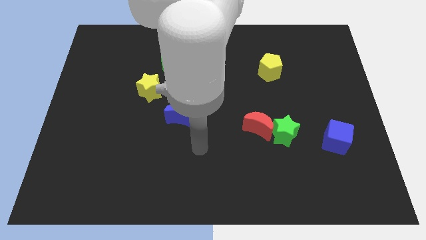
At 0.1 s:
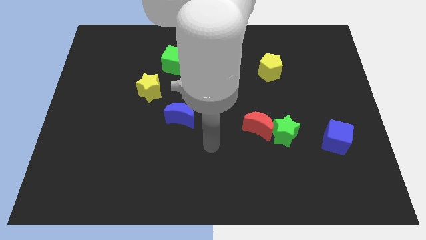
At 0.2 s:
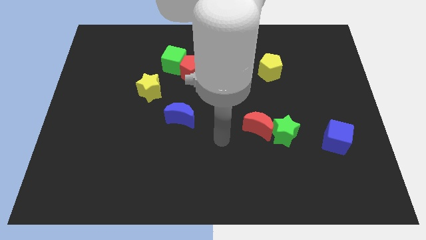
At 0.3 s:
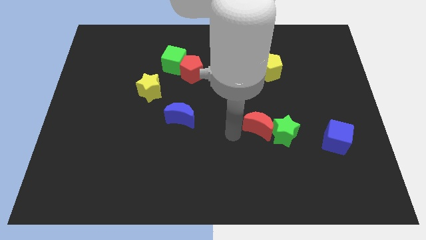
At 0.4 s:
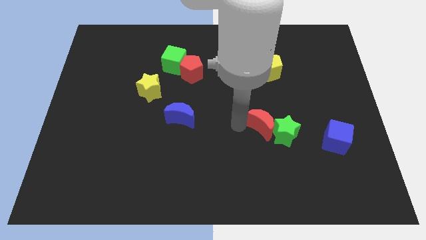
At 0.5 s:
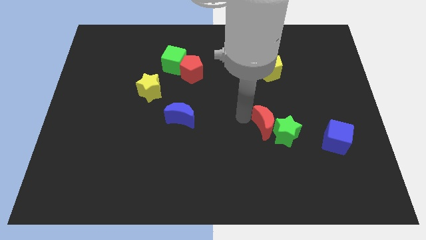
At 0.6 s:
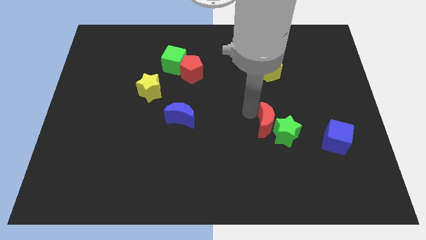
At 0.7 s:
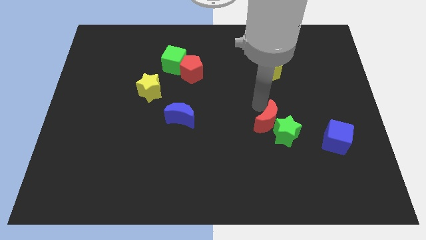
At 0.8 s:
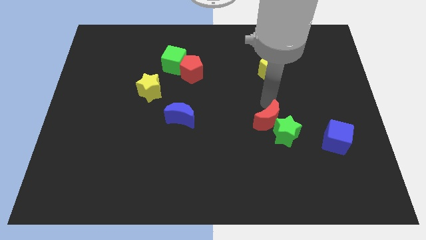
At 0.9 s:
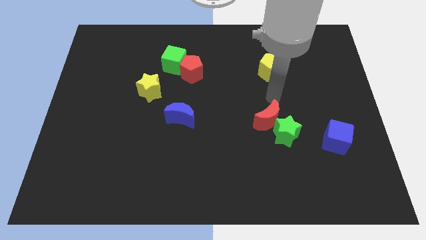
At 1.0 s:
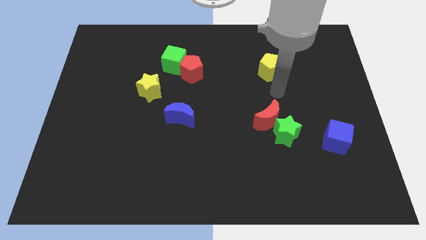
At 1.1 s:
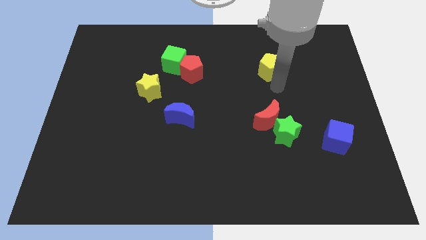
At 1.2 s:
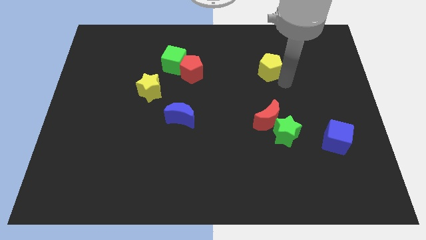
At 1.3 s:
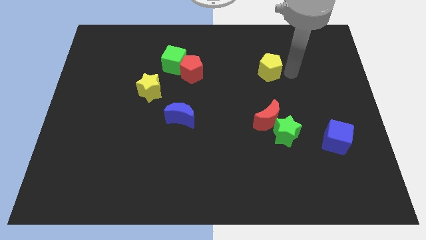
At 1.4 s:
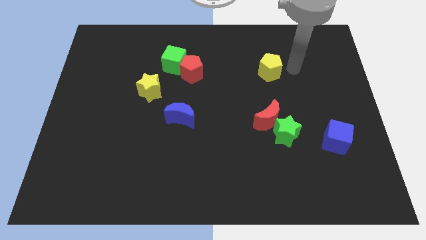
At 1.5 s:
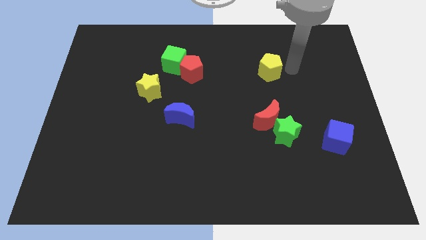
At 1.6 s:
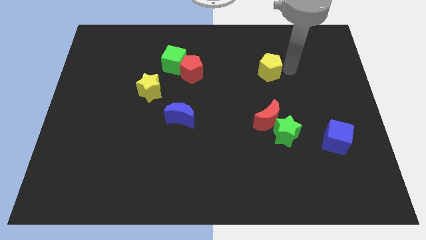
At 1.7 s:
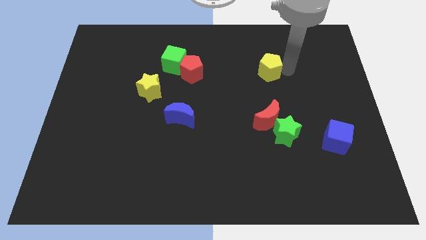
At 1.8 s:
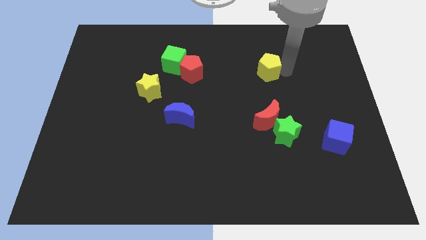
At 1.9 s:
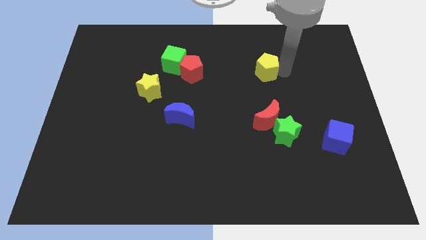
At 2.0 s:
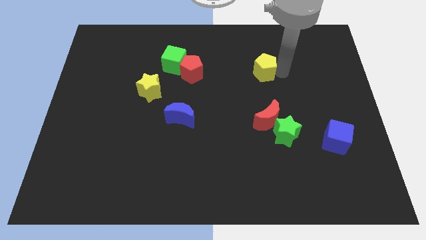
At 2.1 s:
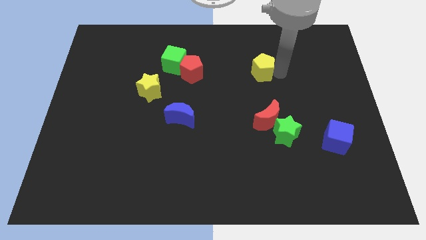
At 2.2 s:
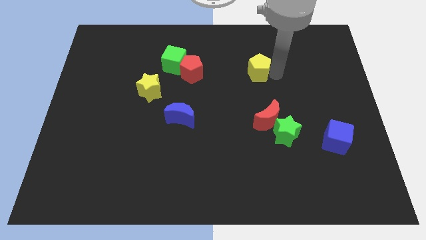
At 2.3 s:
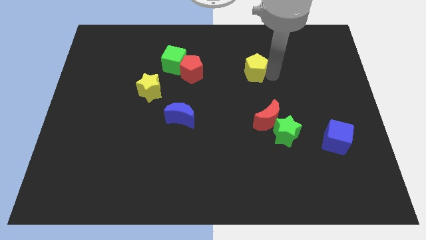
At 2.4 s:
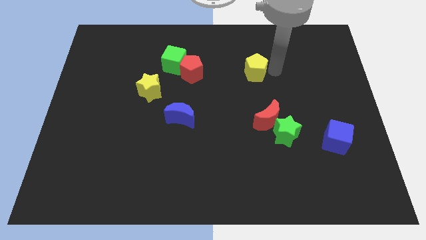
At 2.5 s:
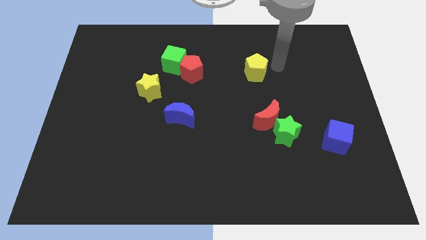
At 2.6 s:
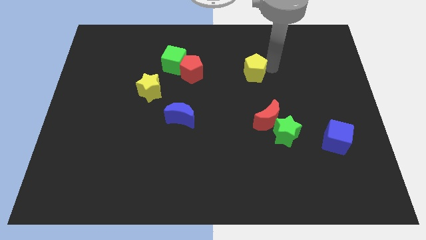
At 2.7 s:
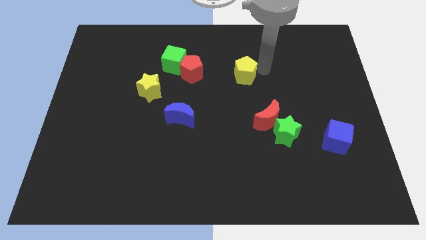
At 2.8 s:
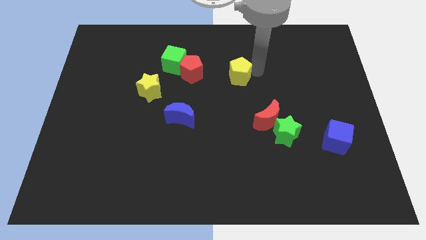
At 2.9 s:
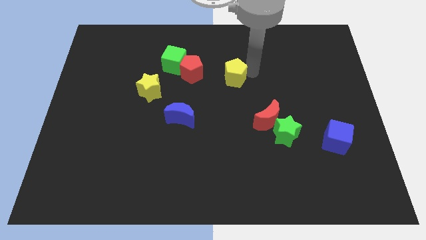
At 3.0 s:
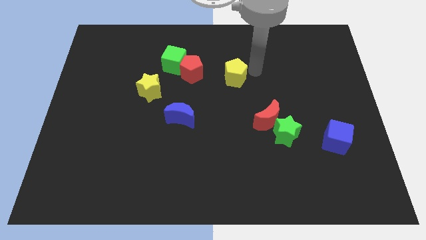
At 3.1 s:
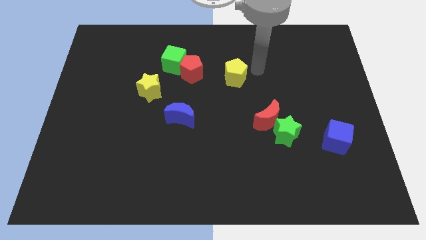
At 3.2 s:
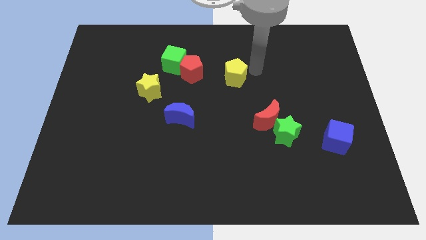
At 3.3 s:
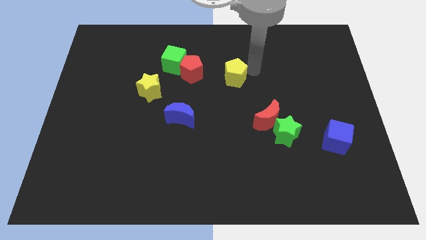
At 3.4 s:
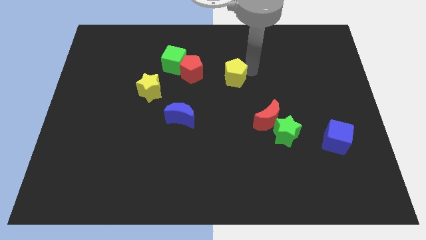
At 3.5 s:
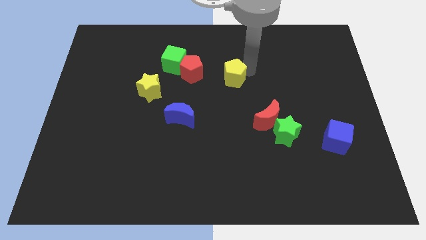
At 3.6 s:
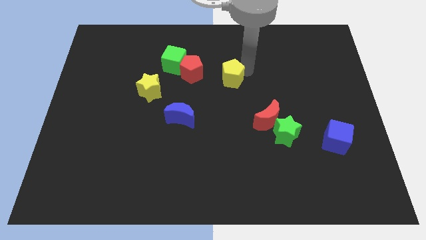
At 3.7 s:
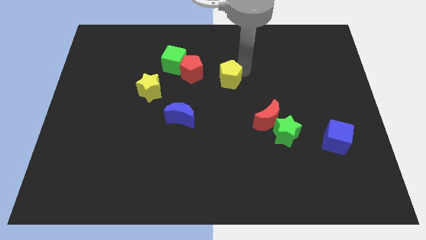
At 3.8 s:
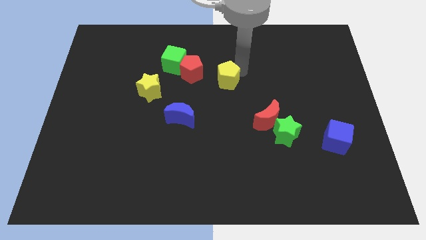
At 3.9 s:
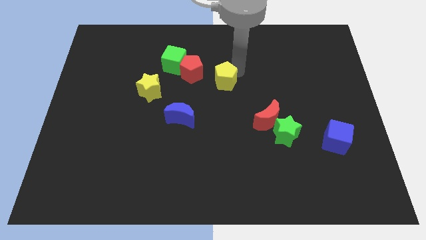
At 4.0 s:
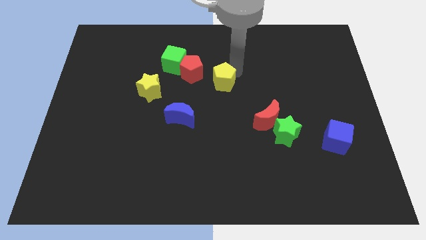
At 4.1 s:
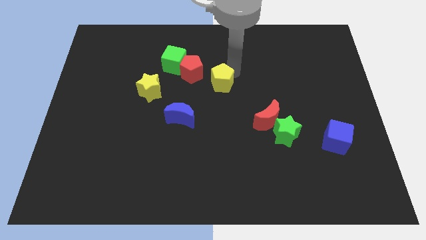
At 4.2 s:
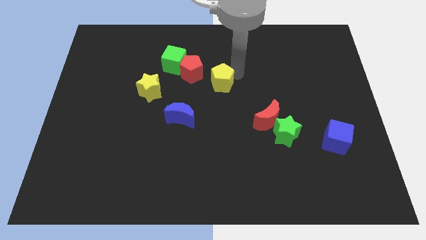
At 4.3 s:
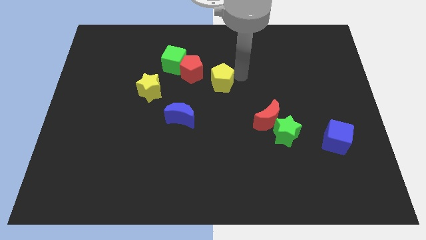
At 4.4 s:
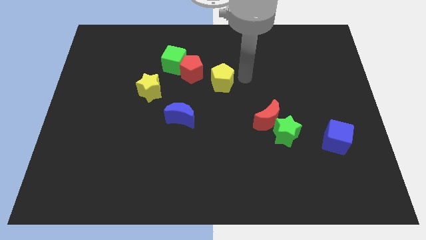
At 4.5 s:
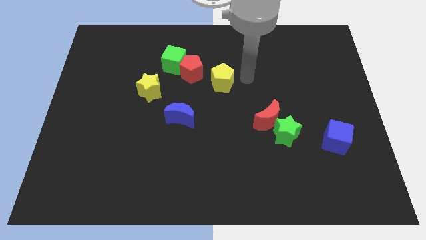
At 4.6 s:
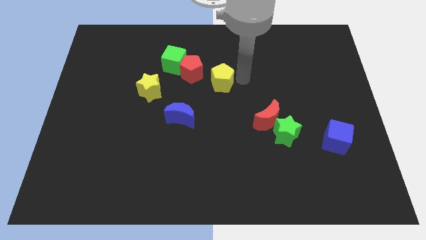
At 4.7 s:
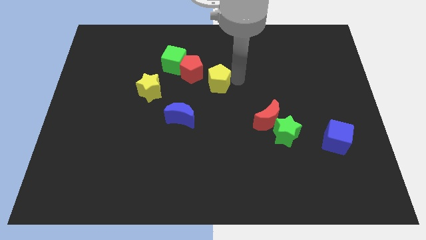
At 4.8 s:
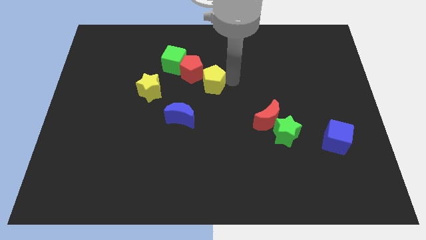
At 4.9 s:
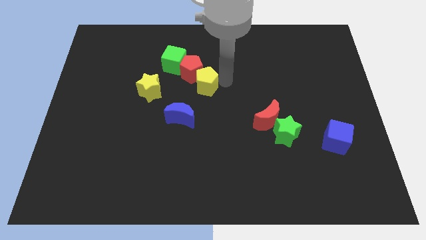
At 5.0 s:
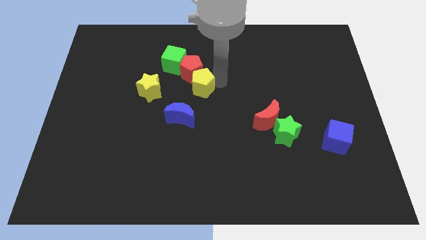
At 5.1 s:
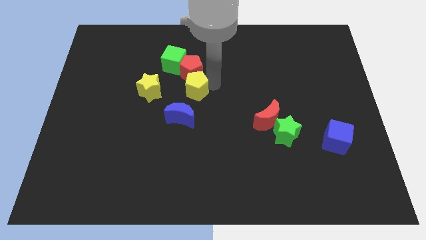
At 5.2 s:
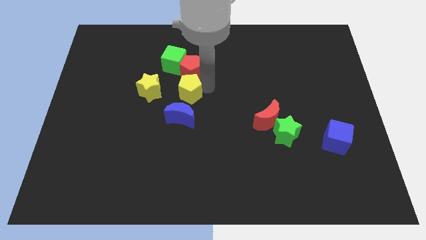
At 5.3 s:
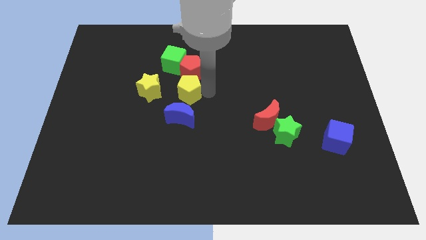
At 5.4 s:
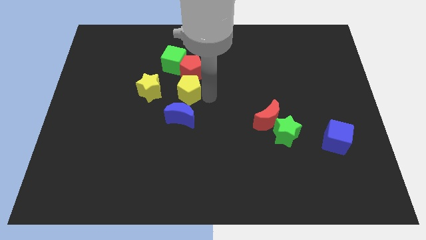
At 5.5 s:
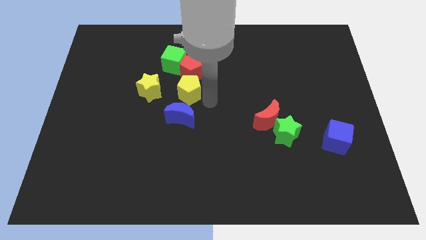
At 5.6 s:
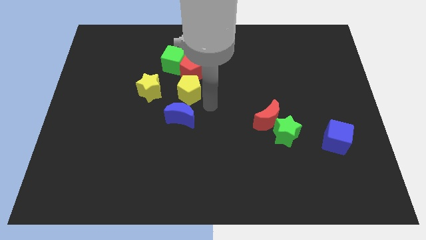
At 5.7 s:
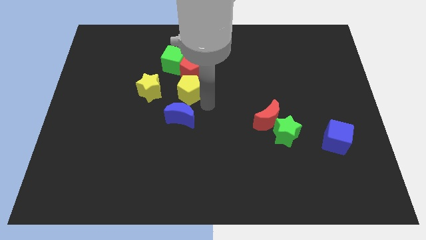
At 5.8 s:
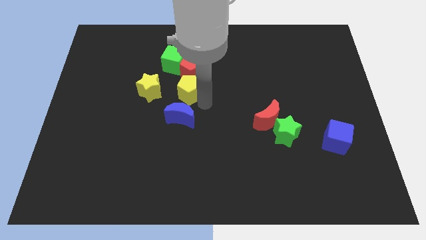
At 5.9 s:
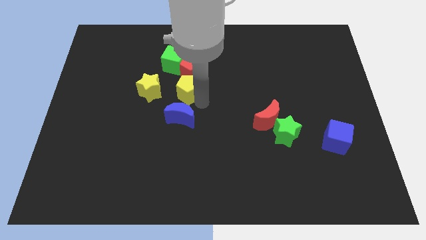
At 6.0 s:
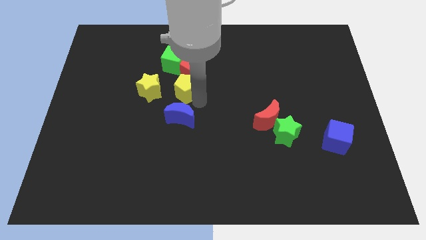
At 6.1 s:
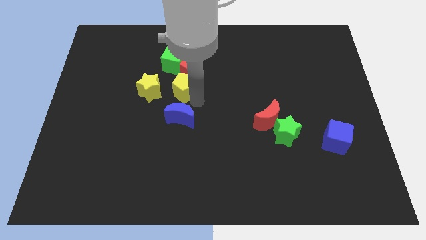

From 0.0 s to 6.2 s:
push the yellow pentagon left

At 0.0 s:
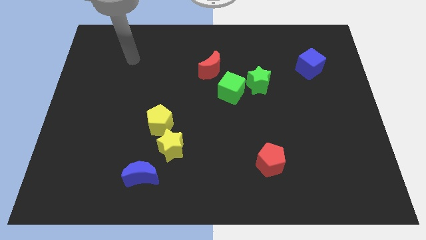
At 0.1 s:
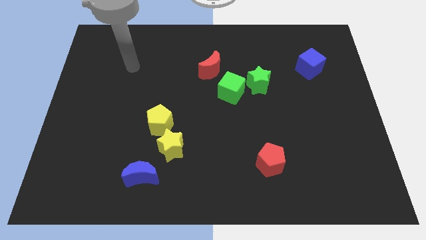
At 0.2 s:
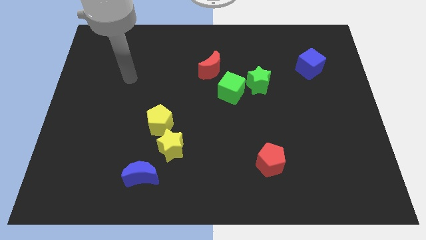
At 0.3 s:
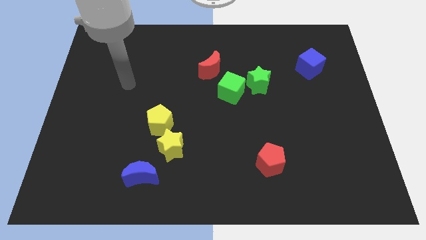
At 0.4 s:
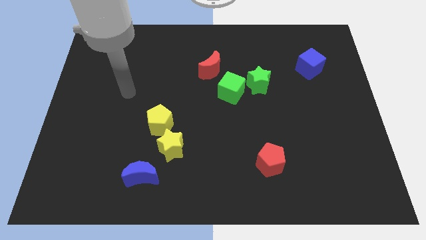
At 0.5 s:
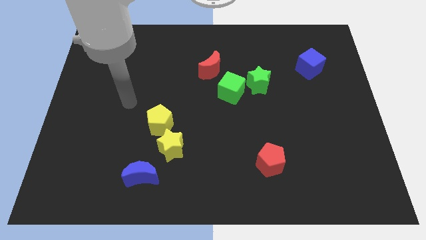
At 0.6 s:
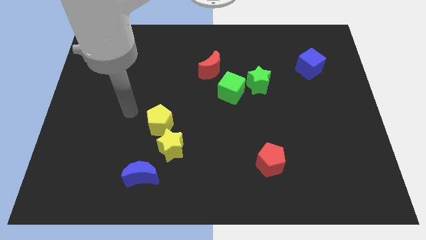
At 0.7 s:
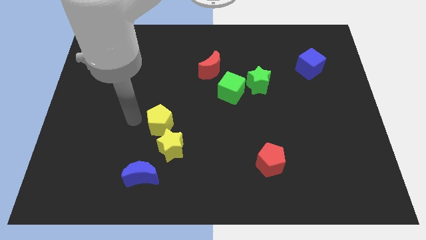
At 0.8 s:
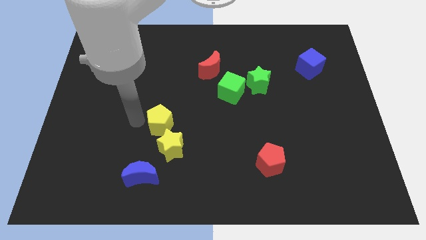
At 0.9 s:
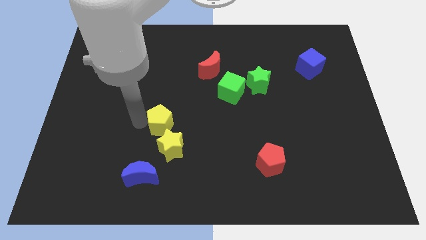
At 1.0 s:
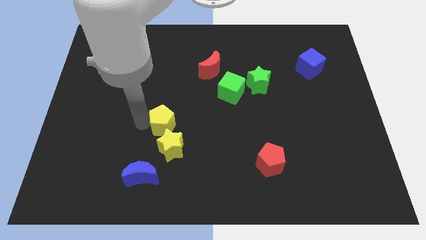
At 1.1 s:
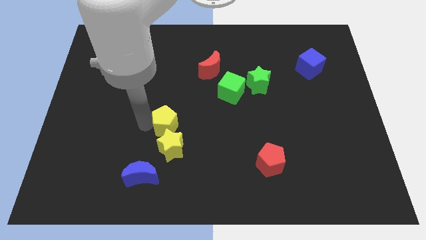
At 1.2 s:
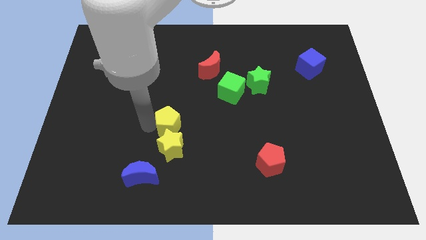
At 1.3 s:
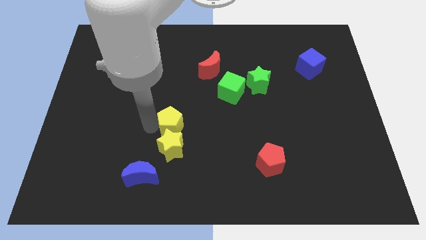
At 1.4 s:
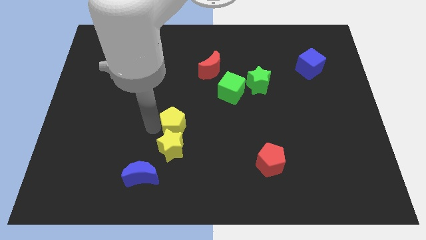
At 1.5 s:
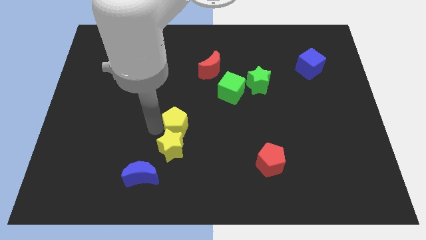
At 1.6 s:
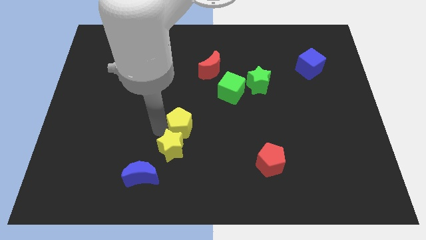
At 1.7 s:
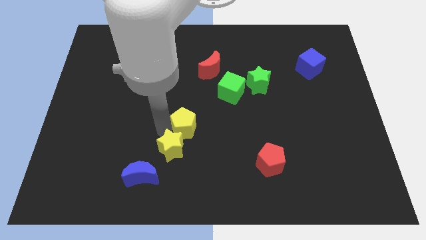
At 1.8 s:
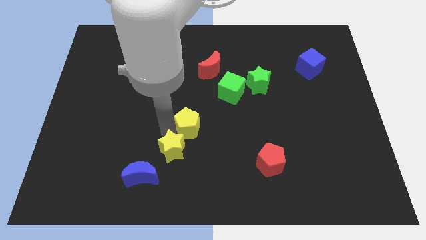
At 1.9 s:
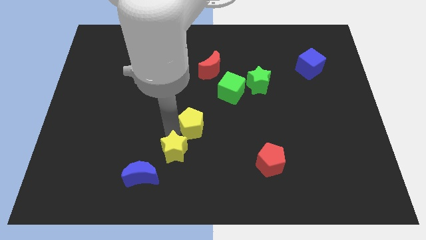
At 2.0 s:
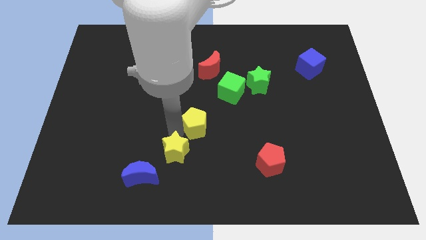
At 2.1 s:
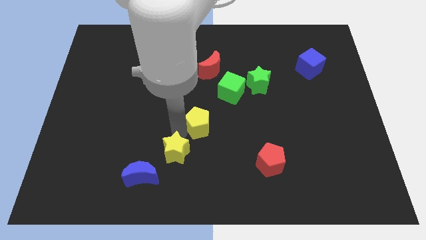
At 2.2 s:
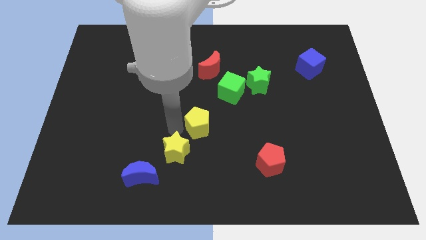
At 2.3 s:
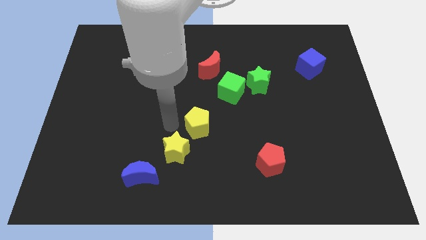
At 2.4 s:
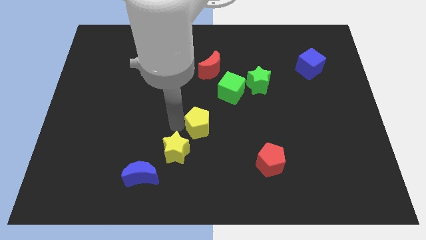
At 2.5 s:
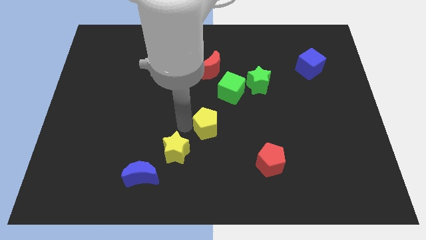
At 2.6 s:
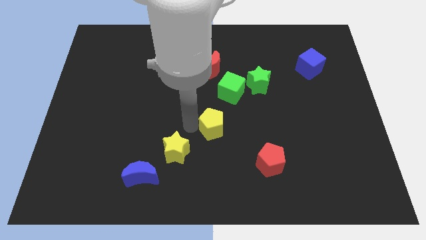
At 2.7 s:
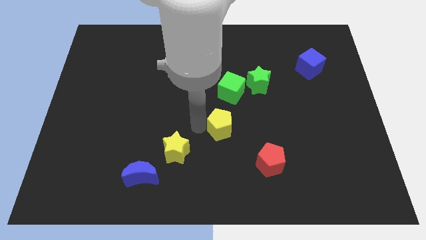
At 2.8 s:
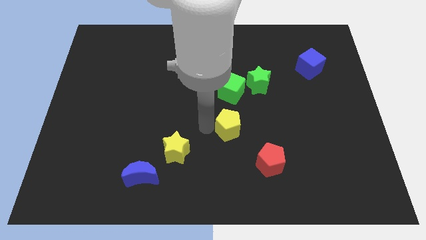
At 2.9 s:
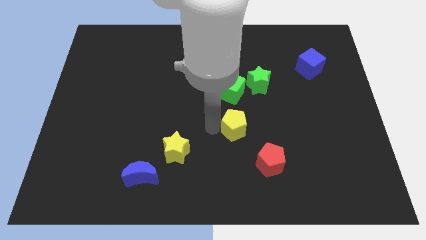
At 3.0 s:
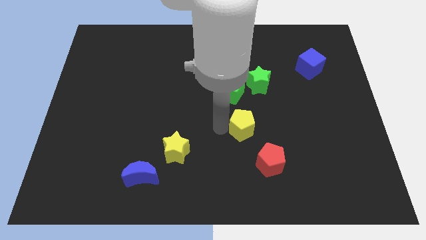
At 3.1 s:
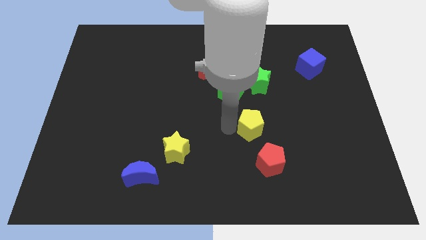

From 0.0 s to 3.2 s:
slide the yellow pentagon right
